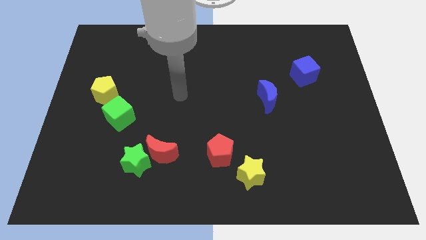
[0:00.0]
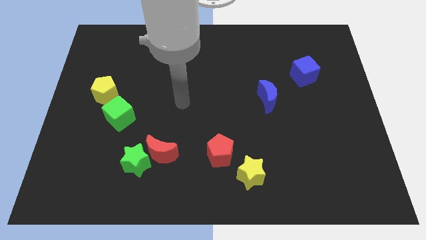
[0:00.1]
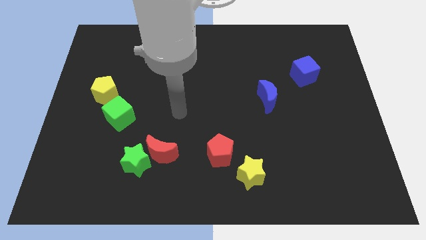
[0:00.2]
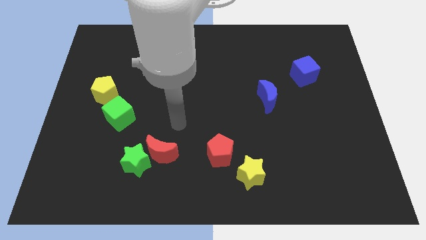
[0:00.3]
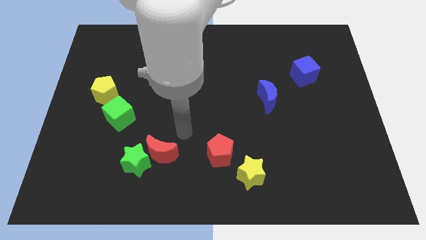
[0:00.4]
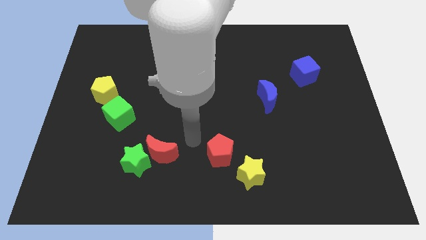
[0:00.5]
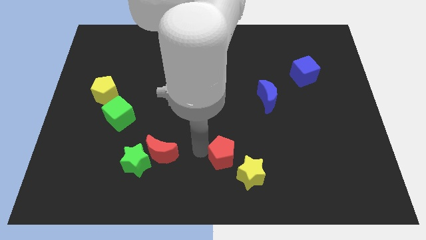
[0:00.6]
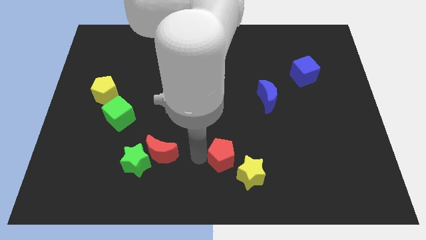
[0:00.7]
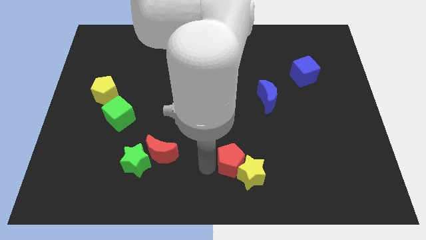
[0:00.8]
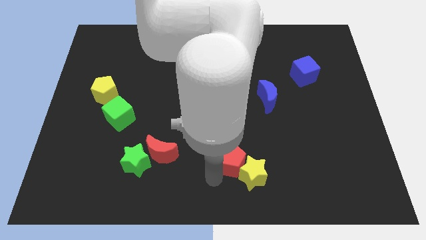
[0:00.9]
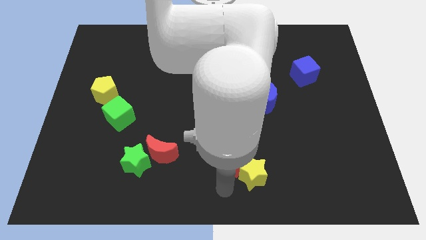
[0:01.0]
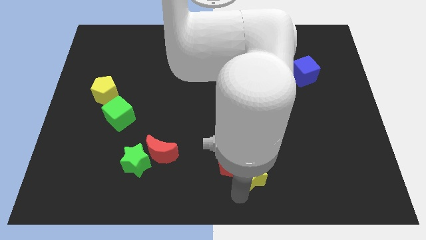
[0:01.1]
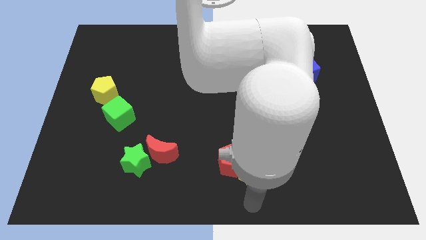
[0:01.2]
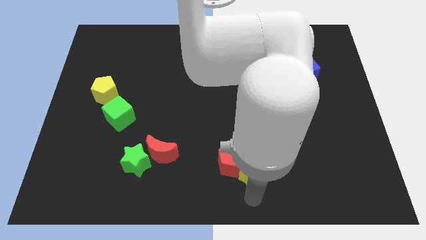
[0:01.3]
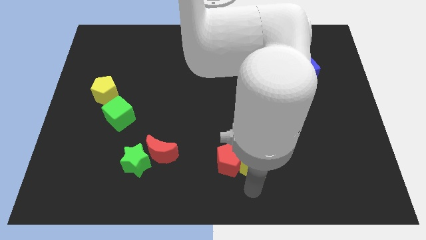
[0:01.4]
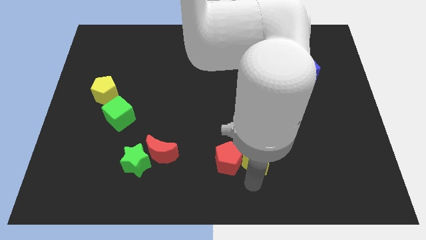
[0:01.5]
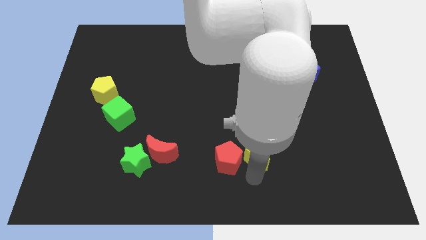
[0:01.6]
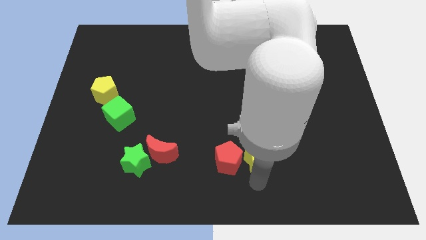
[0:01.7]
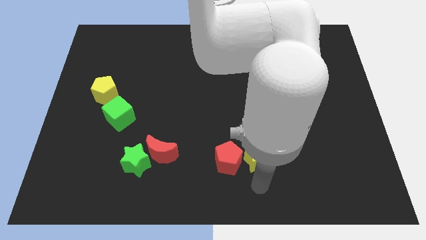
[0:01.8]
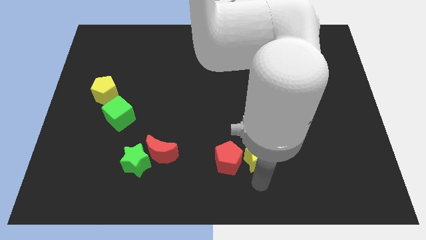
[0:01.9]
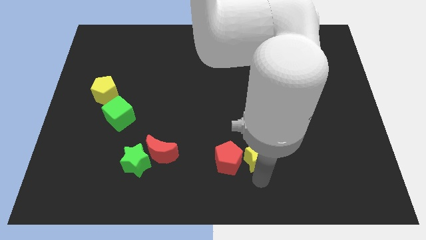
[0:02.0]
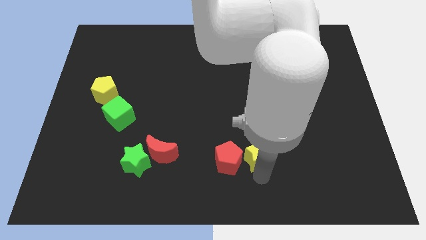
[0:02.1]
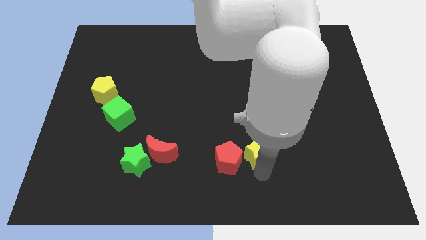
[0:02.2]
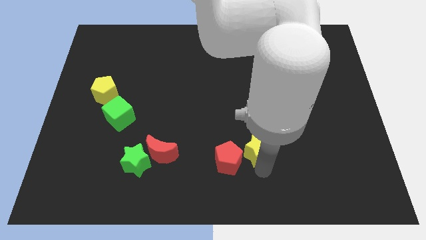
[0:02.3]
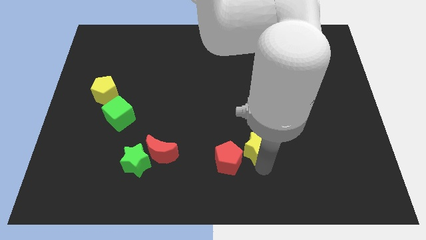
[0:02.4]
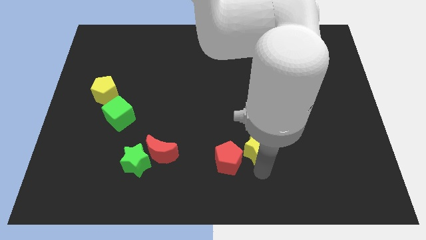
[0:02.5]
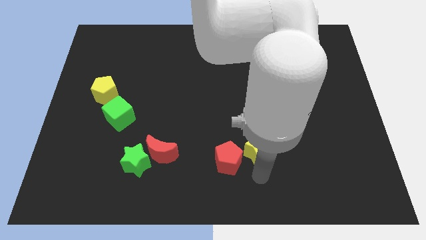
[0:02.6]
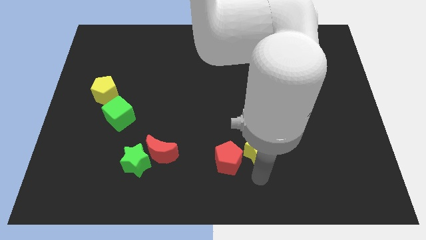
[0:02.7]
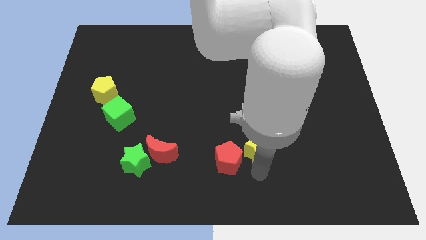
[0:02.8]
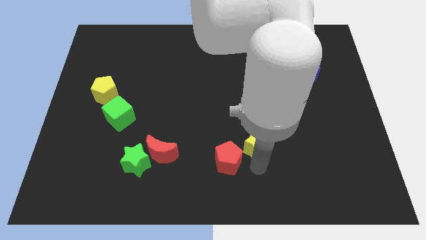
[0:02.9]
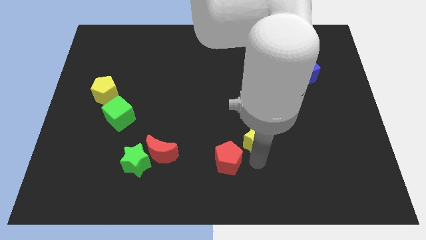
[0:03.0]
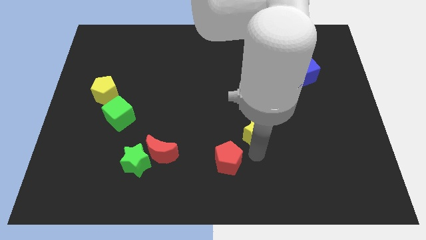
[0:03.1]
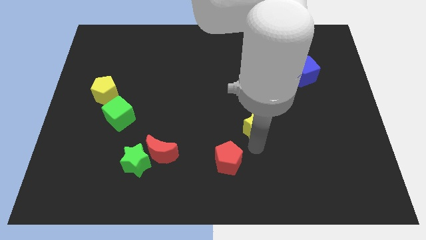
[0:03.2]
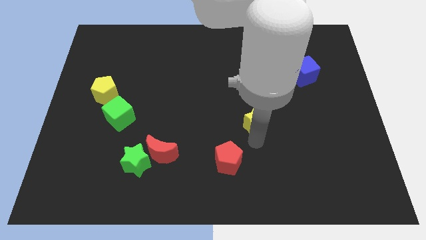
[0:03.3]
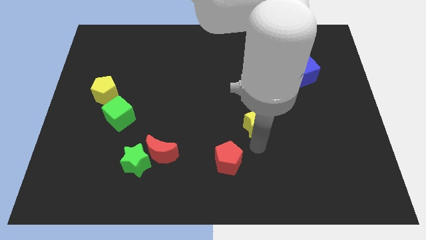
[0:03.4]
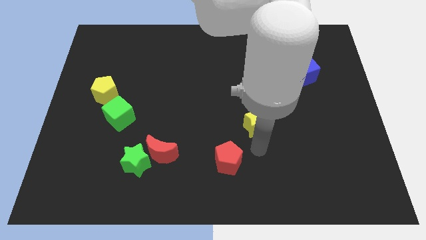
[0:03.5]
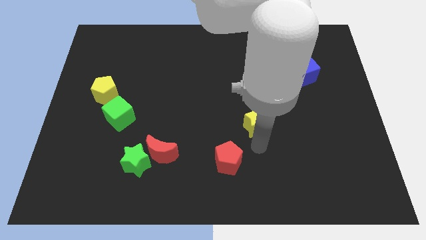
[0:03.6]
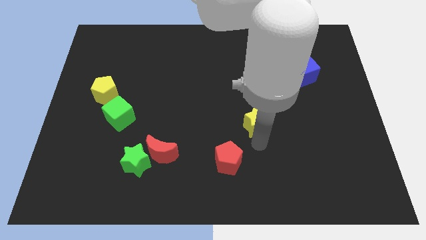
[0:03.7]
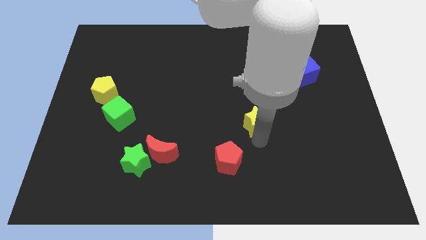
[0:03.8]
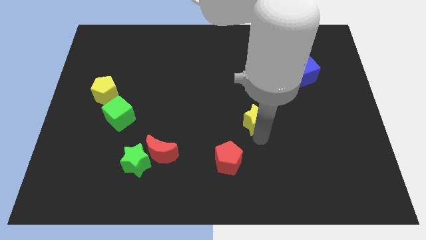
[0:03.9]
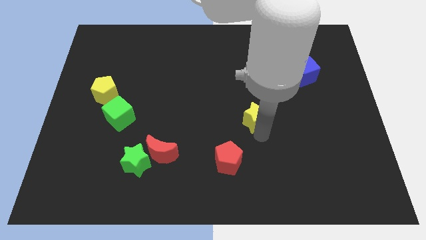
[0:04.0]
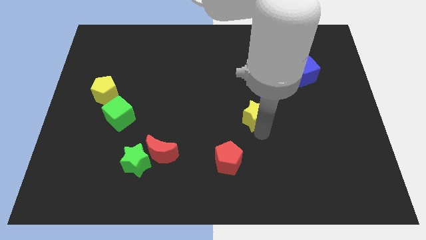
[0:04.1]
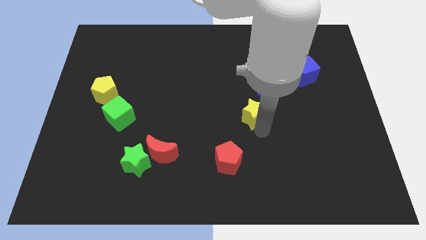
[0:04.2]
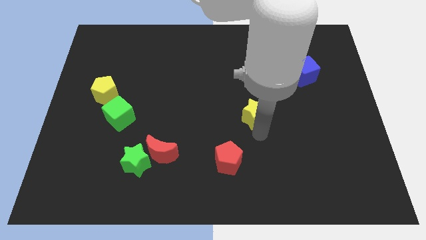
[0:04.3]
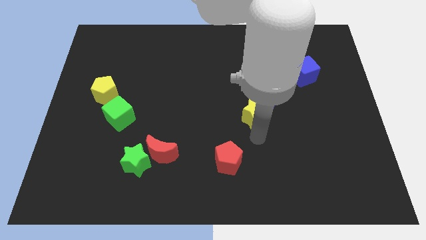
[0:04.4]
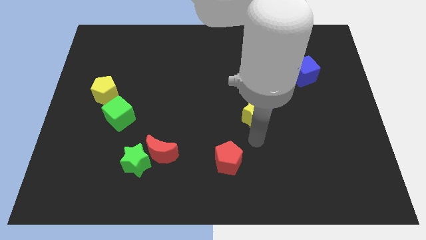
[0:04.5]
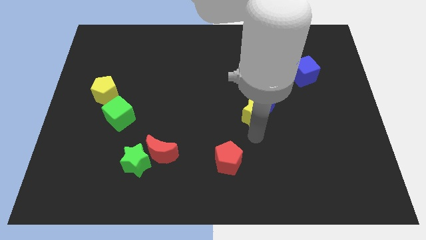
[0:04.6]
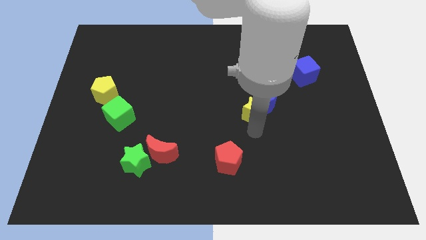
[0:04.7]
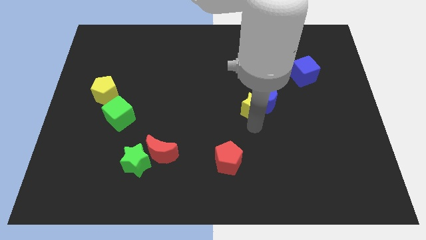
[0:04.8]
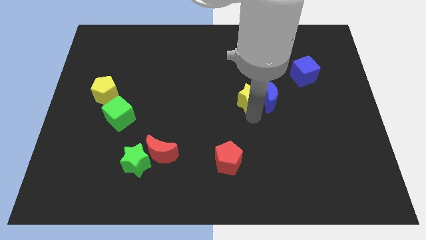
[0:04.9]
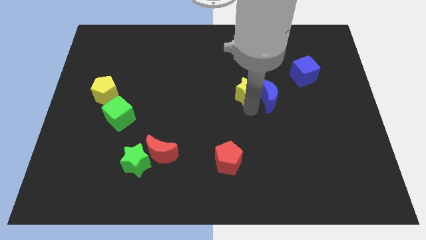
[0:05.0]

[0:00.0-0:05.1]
slide the yellow star up

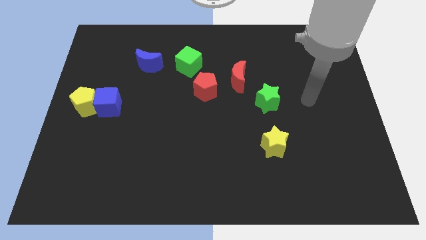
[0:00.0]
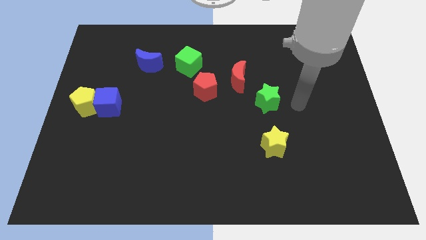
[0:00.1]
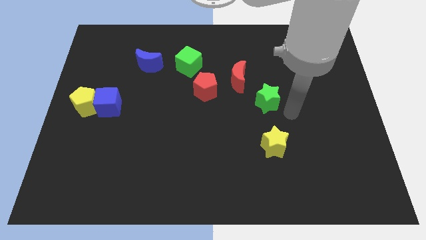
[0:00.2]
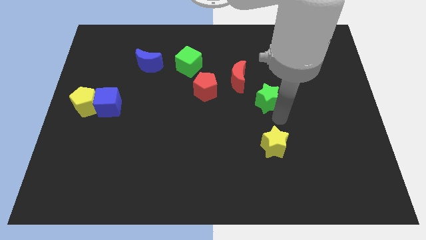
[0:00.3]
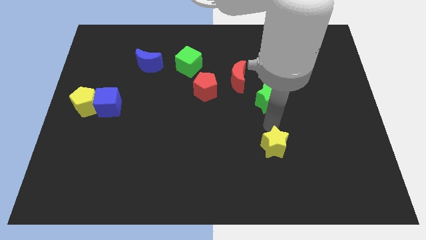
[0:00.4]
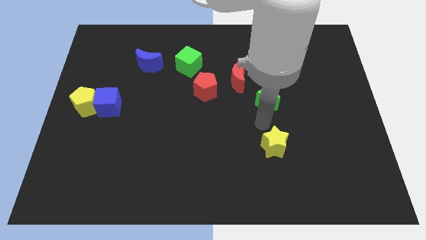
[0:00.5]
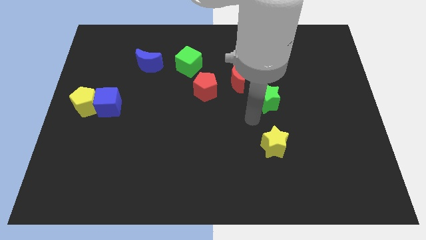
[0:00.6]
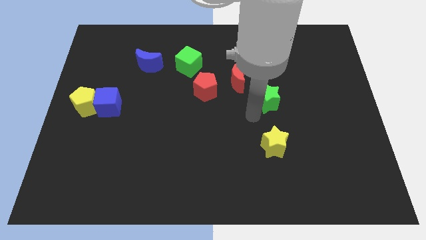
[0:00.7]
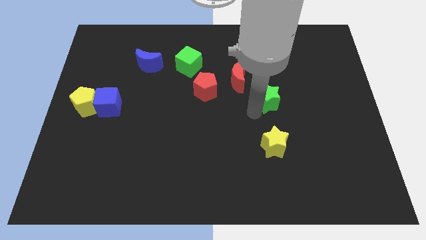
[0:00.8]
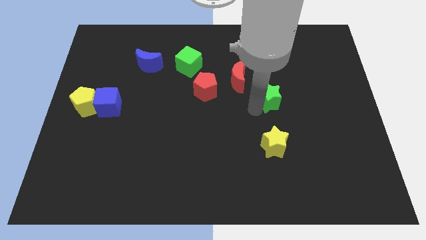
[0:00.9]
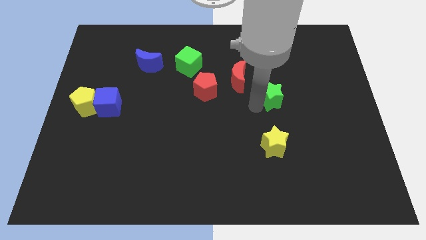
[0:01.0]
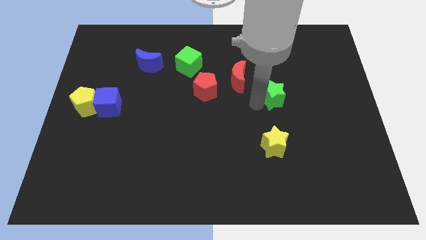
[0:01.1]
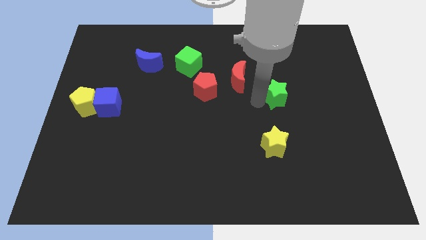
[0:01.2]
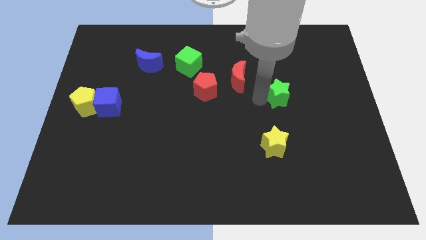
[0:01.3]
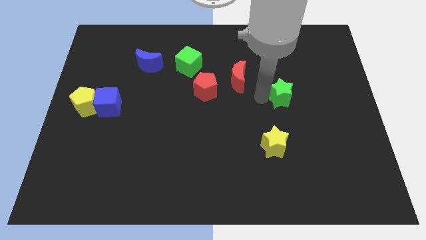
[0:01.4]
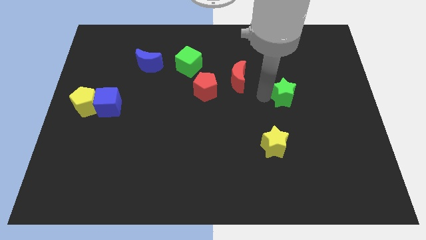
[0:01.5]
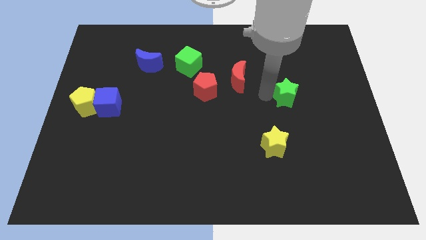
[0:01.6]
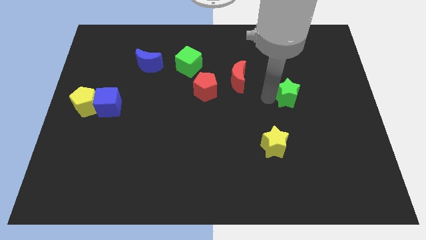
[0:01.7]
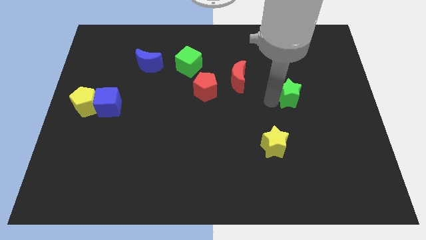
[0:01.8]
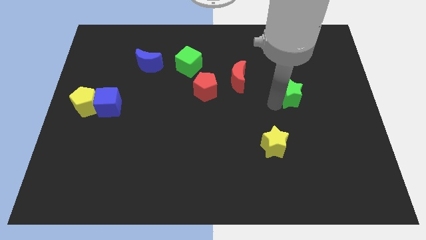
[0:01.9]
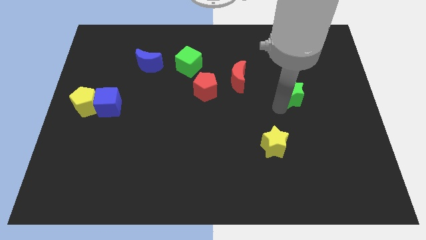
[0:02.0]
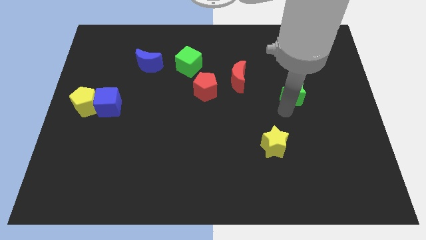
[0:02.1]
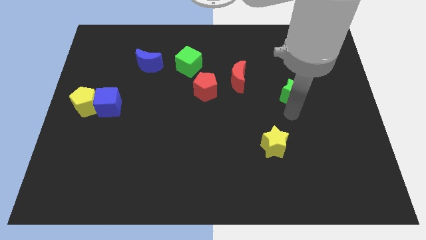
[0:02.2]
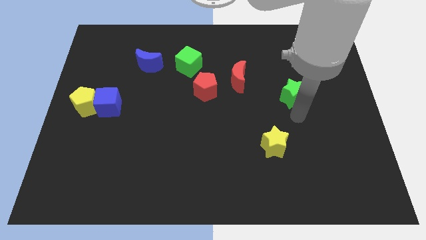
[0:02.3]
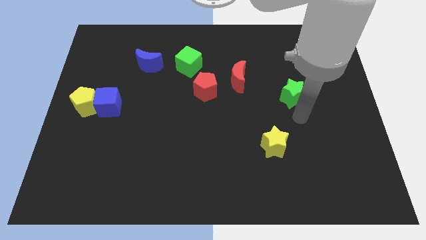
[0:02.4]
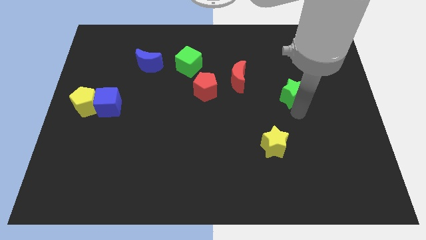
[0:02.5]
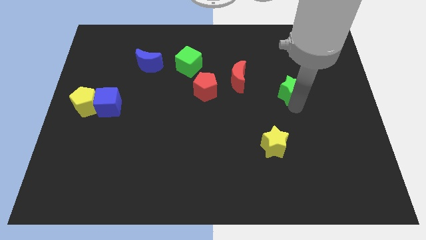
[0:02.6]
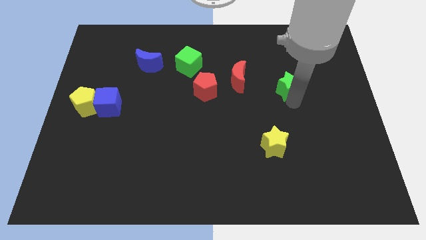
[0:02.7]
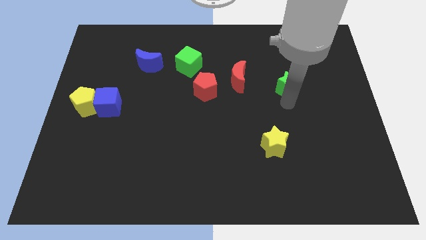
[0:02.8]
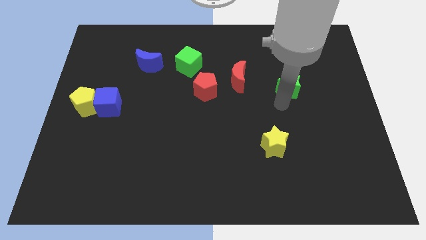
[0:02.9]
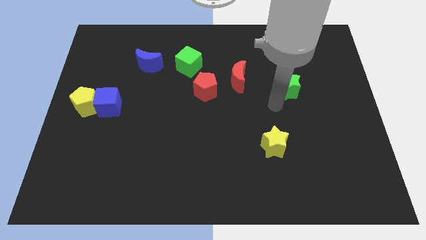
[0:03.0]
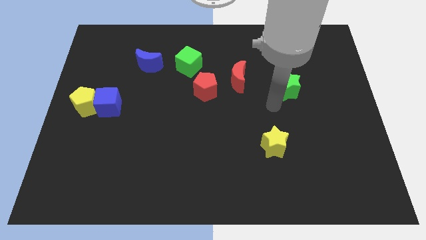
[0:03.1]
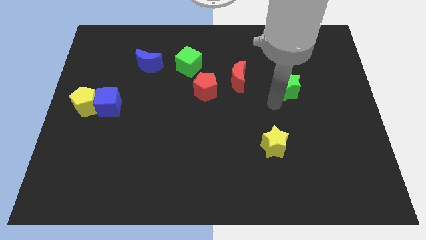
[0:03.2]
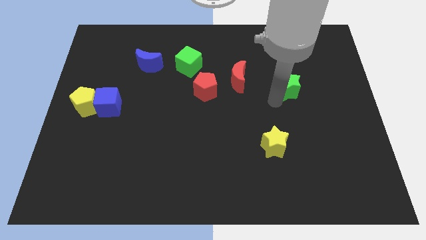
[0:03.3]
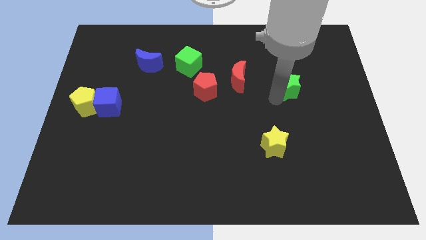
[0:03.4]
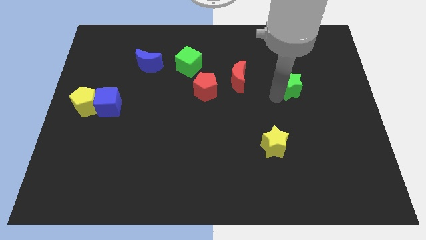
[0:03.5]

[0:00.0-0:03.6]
slightly move the green star upwards and right diagonally
